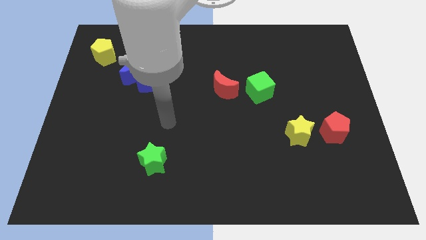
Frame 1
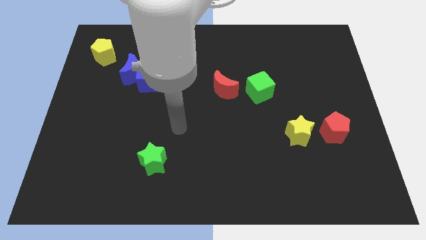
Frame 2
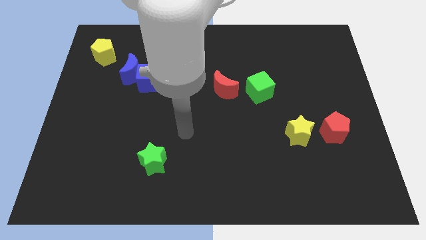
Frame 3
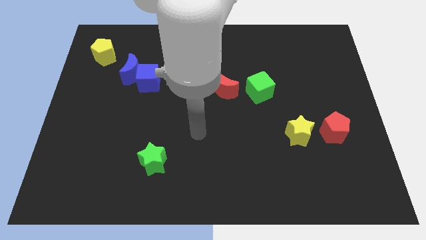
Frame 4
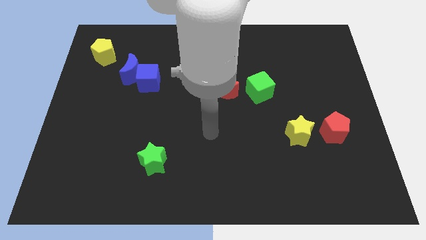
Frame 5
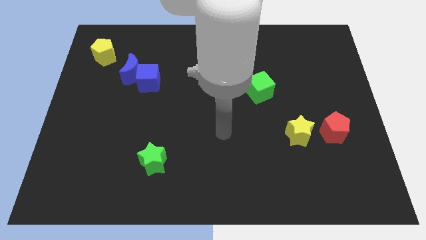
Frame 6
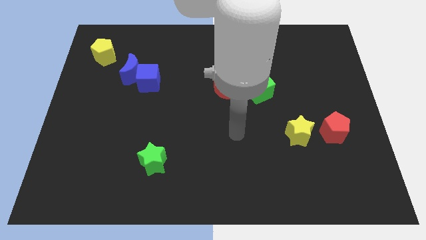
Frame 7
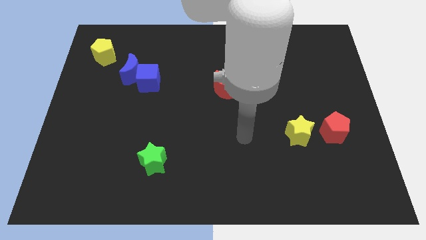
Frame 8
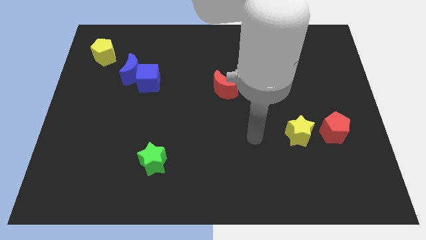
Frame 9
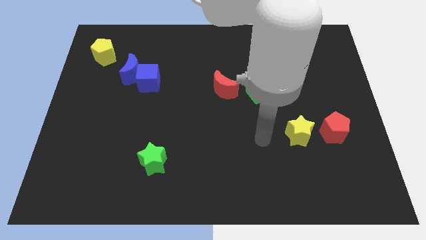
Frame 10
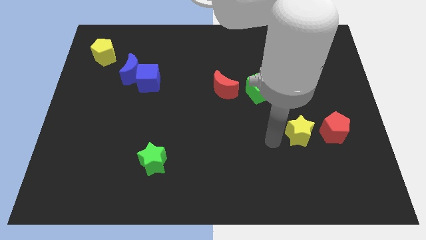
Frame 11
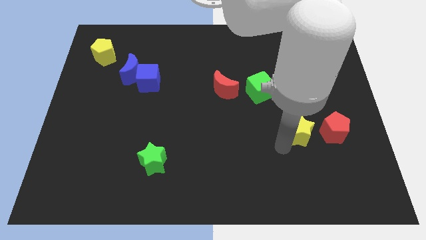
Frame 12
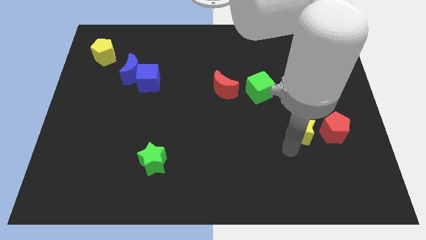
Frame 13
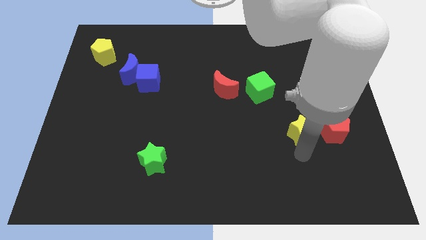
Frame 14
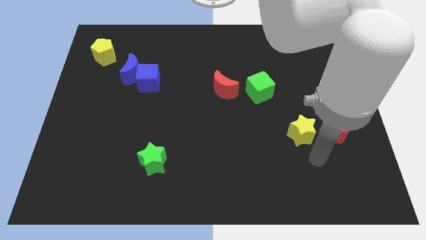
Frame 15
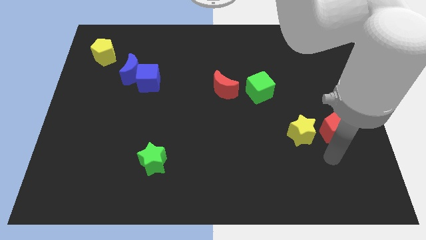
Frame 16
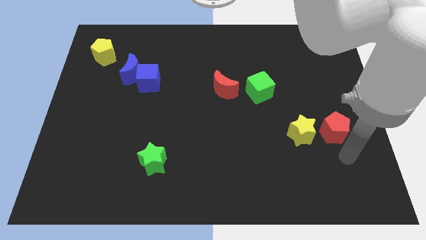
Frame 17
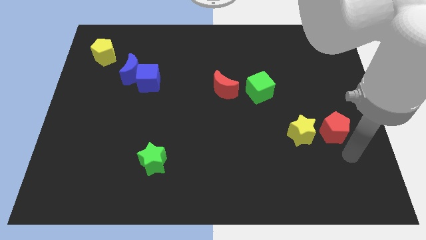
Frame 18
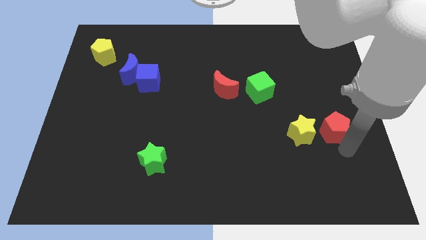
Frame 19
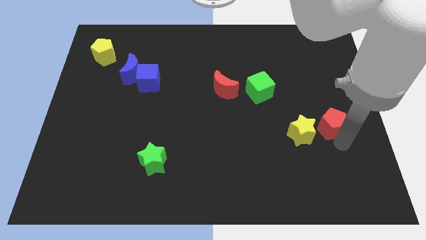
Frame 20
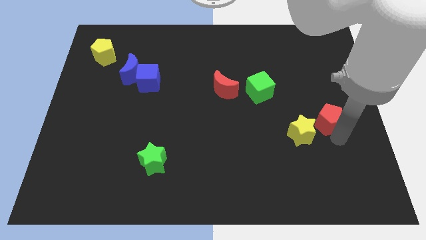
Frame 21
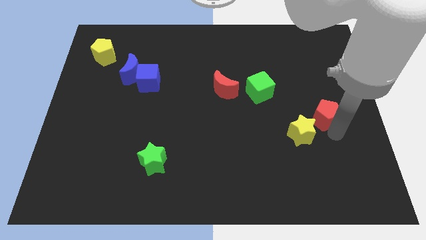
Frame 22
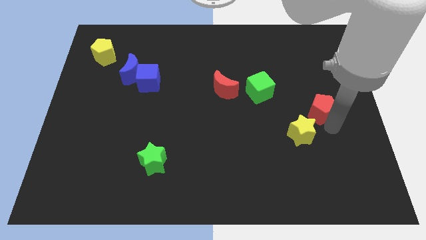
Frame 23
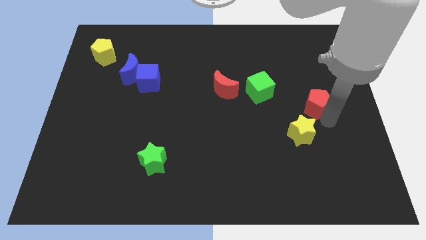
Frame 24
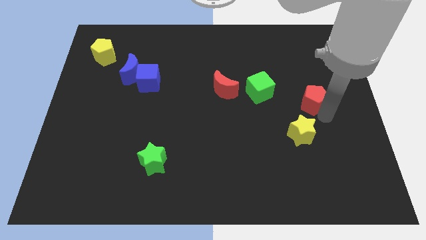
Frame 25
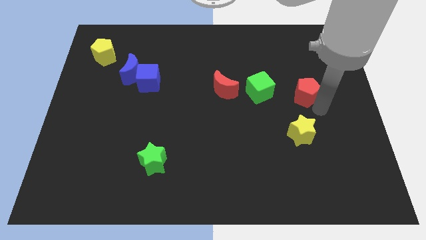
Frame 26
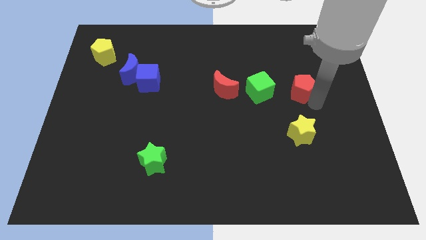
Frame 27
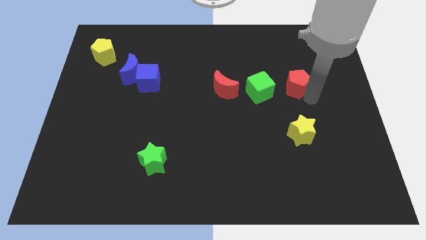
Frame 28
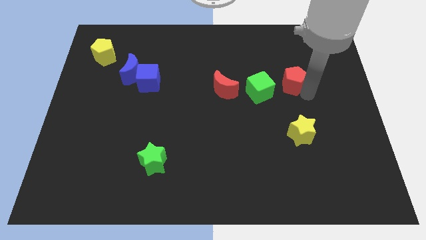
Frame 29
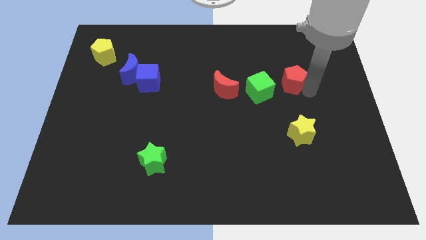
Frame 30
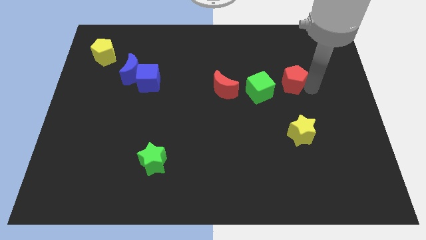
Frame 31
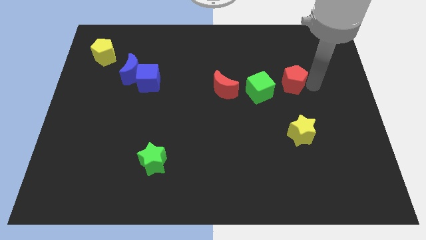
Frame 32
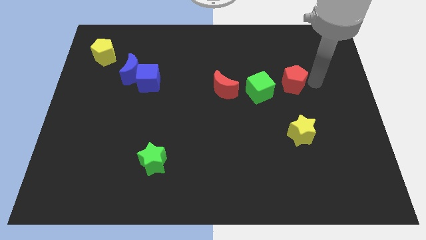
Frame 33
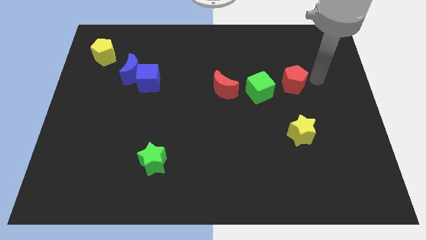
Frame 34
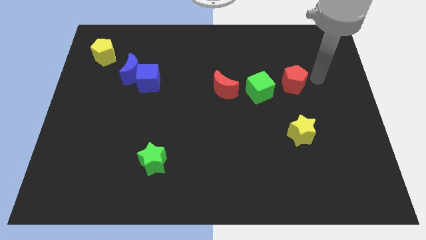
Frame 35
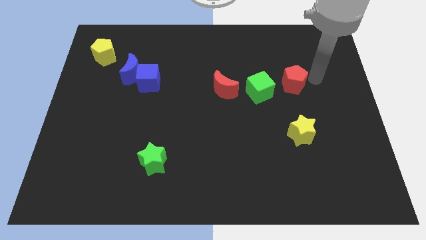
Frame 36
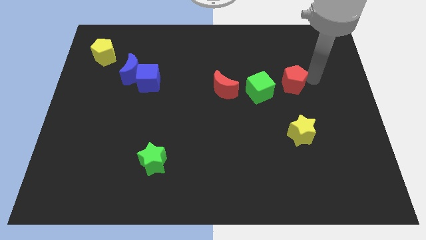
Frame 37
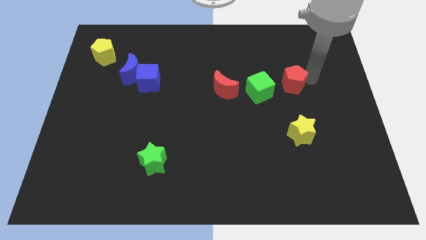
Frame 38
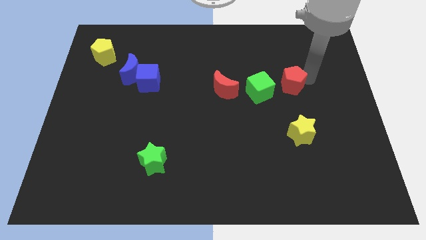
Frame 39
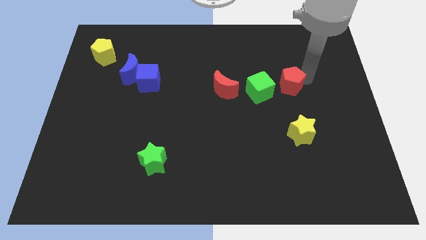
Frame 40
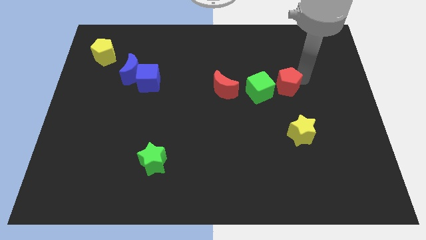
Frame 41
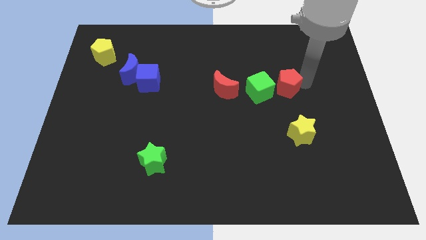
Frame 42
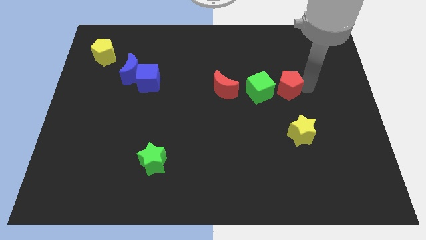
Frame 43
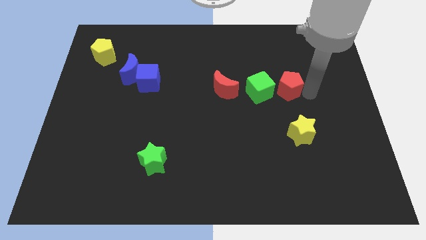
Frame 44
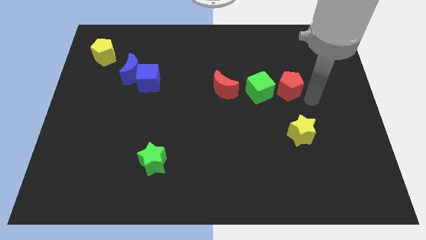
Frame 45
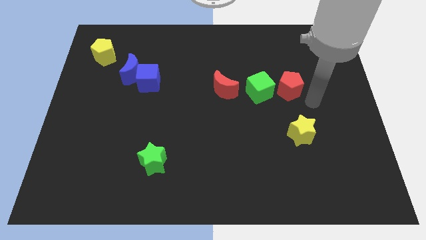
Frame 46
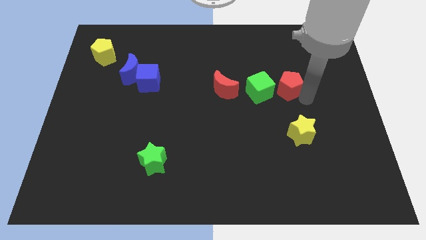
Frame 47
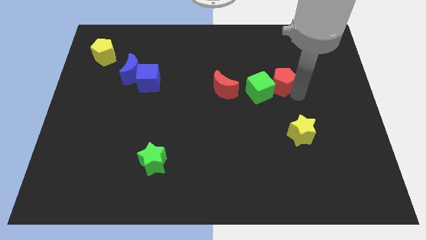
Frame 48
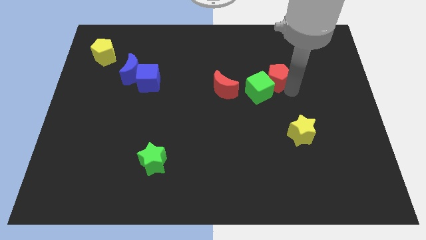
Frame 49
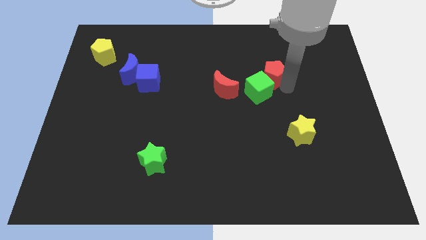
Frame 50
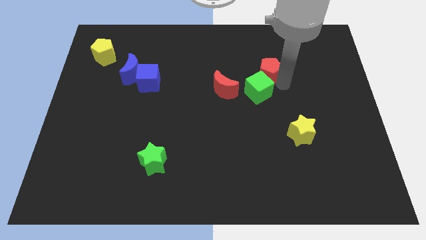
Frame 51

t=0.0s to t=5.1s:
slide the red pentagon up and then left

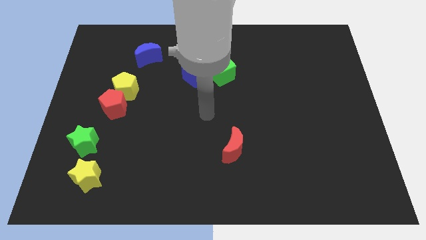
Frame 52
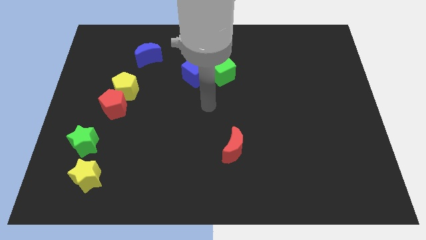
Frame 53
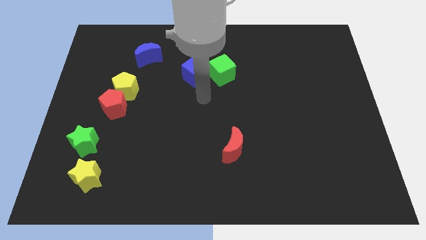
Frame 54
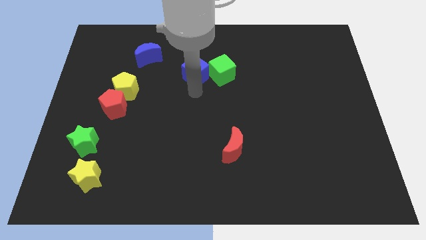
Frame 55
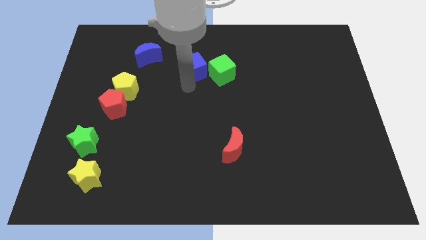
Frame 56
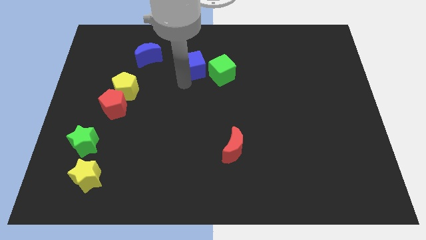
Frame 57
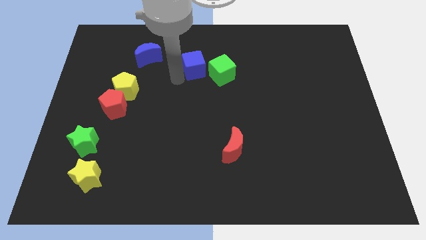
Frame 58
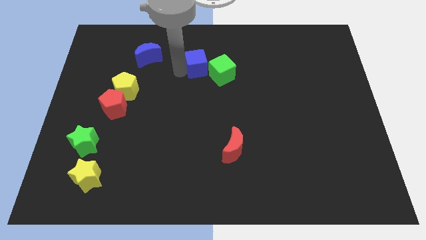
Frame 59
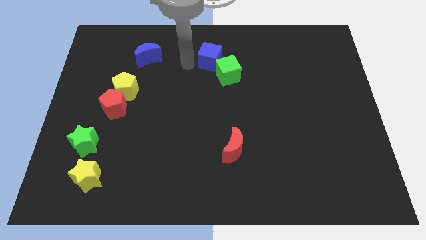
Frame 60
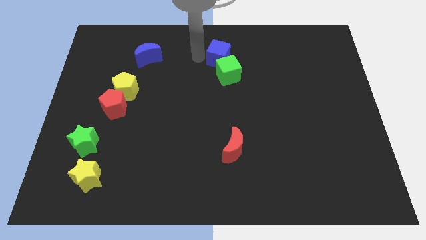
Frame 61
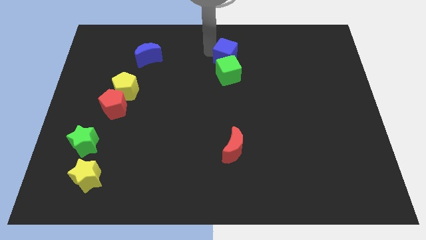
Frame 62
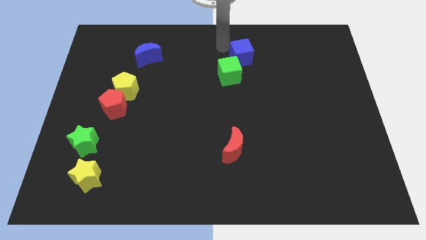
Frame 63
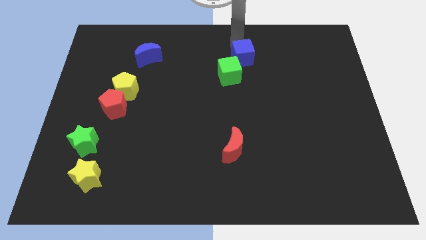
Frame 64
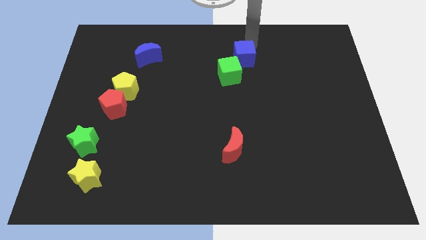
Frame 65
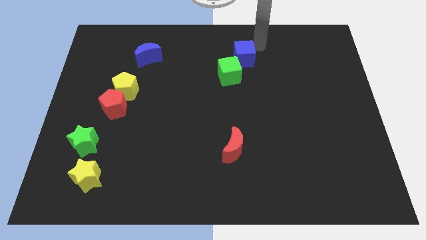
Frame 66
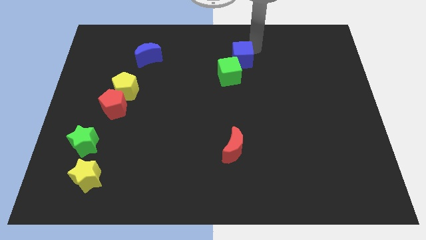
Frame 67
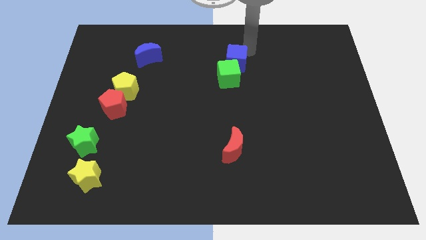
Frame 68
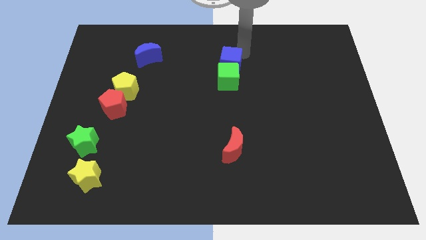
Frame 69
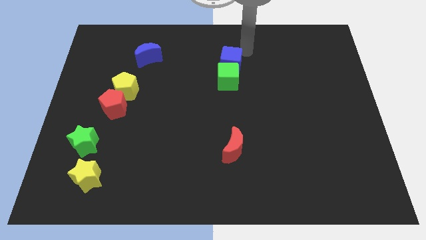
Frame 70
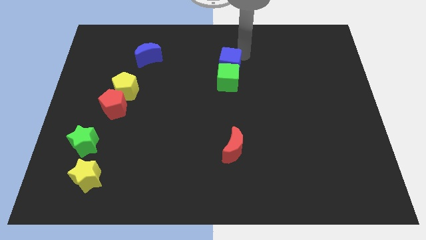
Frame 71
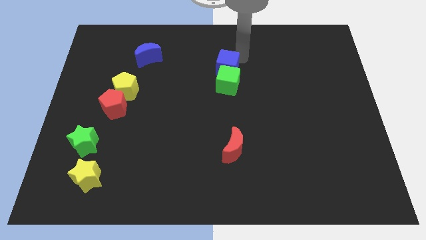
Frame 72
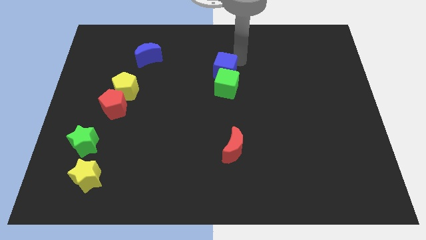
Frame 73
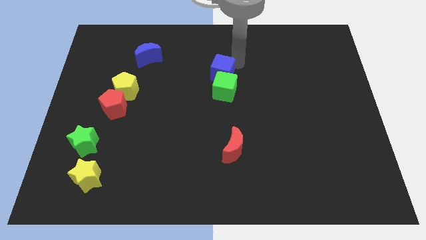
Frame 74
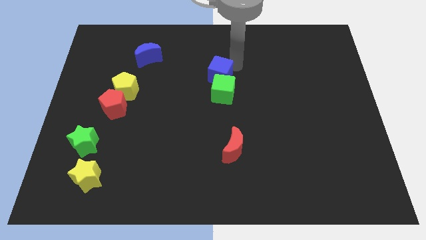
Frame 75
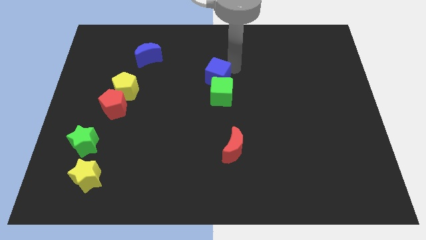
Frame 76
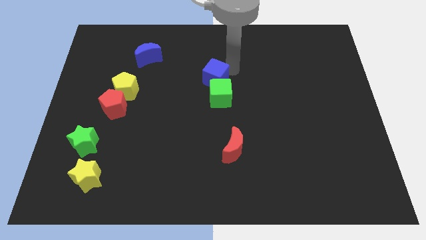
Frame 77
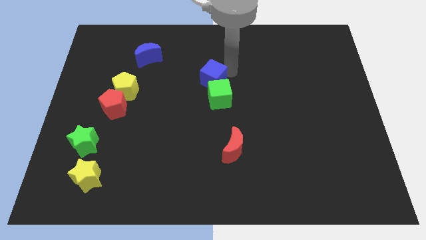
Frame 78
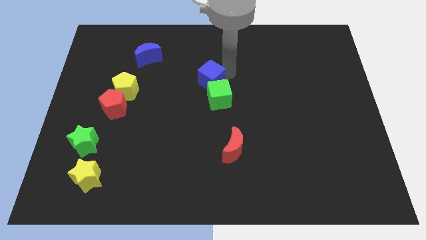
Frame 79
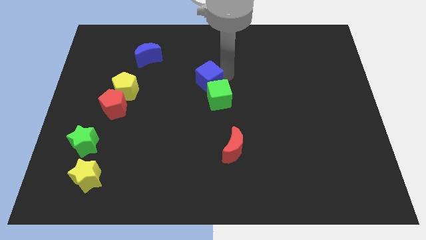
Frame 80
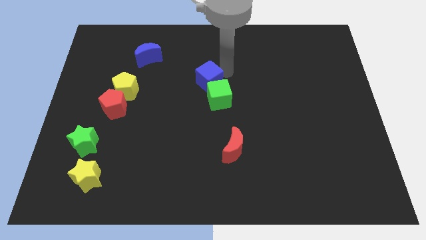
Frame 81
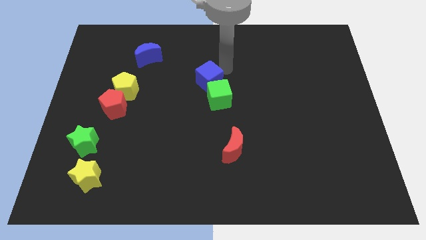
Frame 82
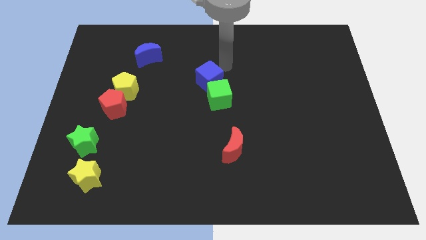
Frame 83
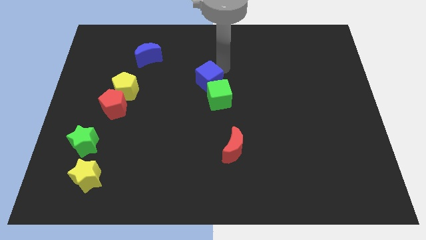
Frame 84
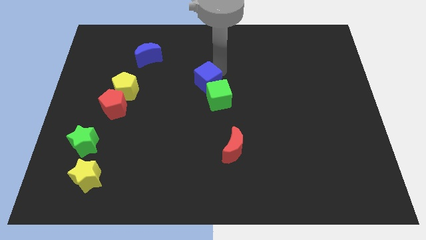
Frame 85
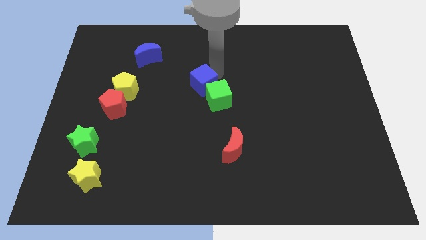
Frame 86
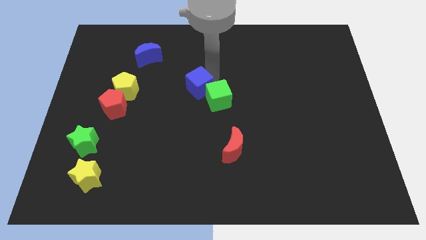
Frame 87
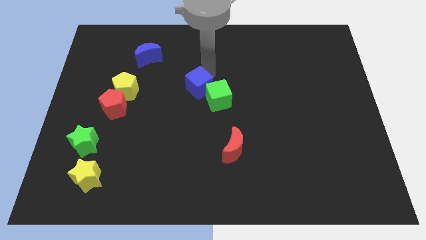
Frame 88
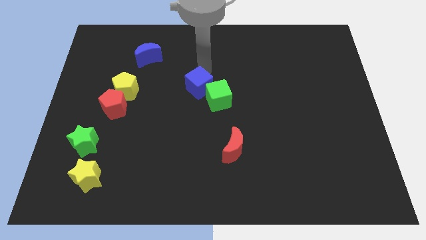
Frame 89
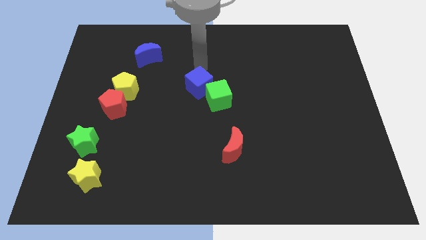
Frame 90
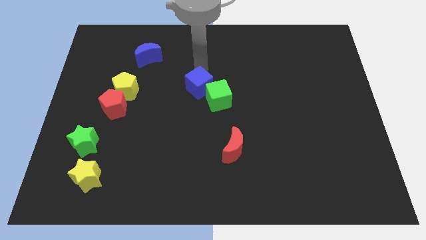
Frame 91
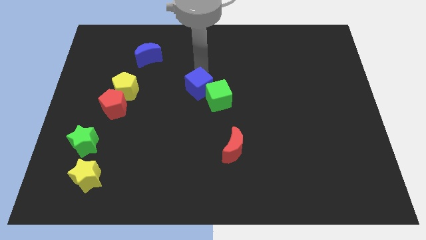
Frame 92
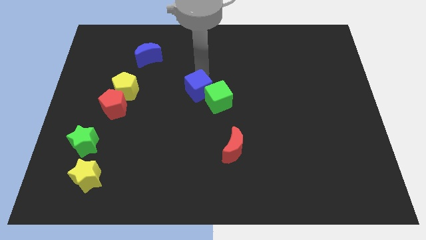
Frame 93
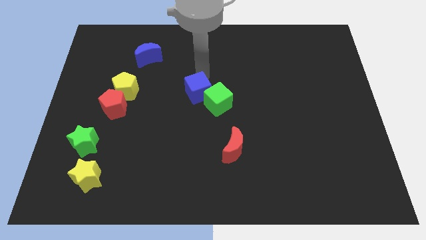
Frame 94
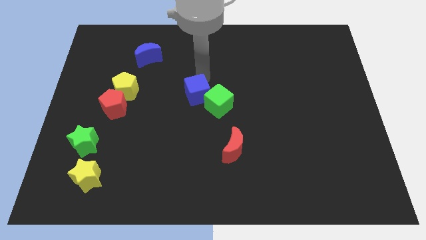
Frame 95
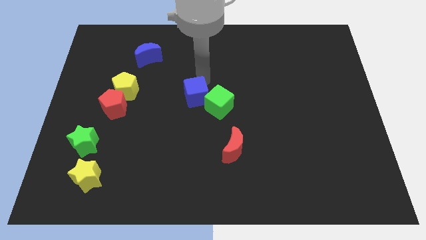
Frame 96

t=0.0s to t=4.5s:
slightly push the blue cube down
